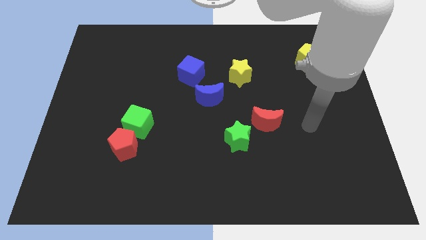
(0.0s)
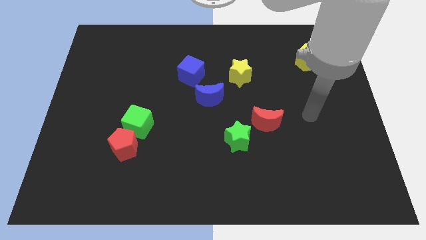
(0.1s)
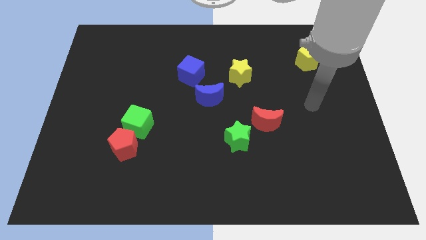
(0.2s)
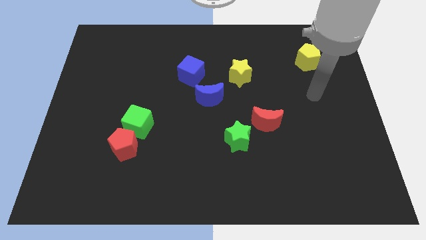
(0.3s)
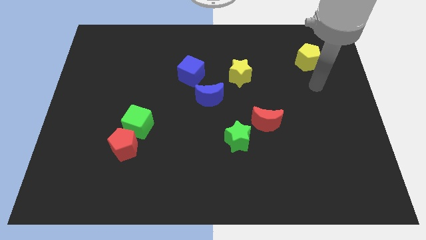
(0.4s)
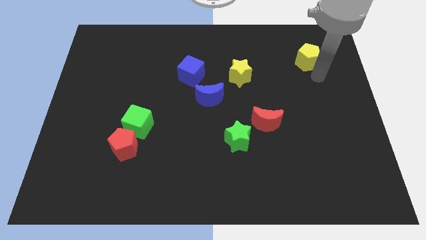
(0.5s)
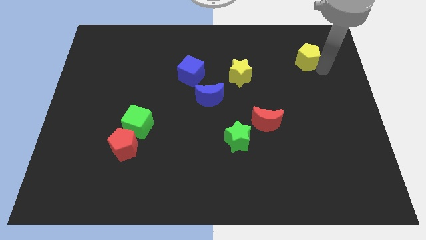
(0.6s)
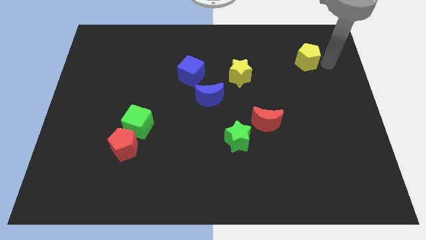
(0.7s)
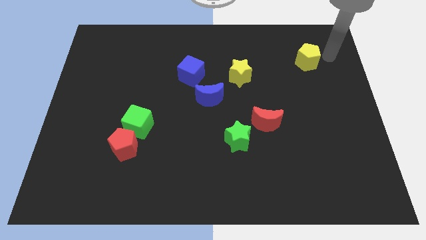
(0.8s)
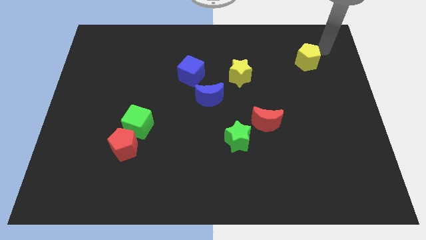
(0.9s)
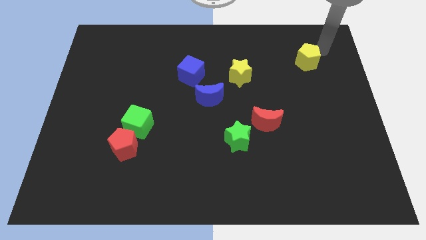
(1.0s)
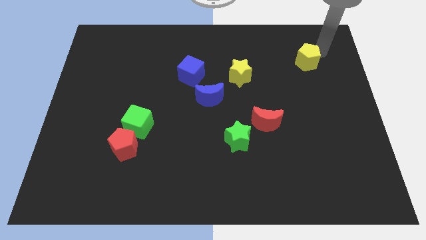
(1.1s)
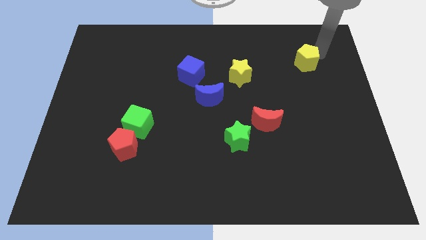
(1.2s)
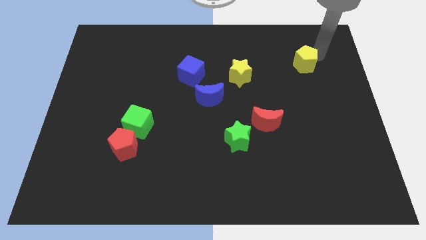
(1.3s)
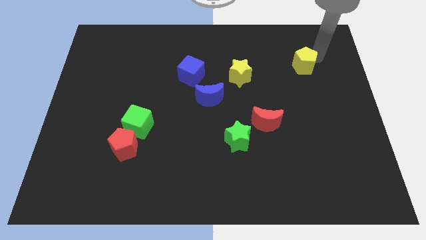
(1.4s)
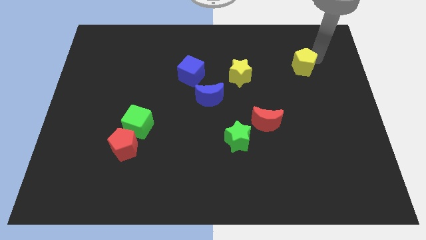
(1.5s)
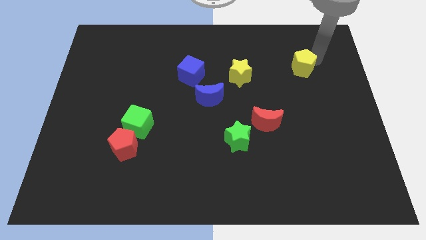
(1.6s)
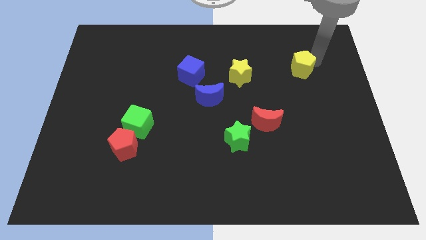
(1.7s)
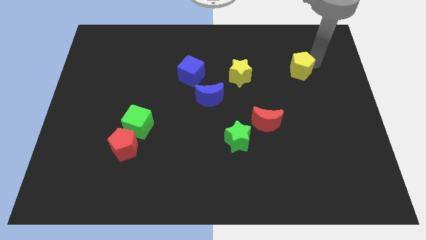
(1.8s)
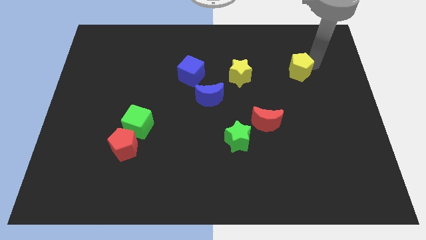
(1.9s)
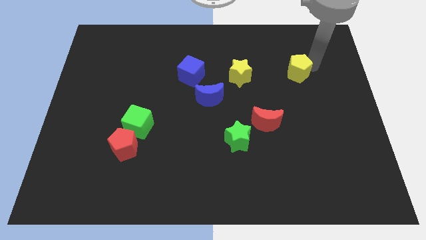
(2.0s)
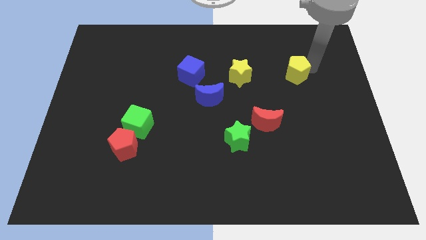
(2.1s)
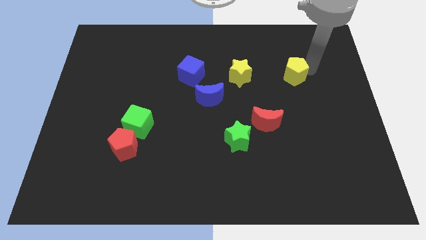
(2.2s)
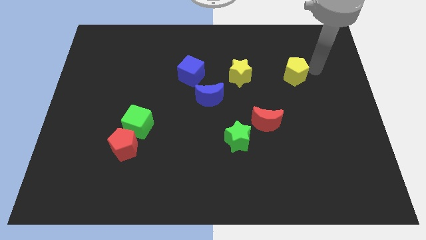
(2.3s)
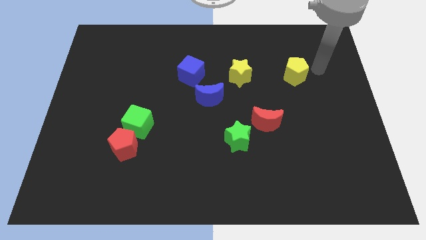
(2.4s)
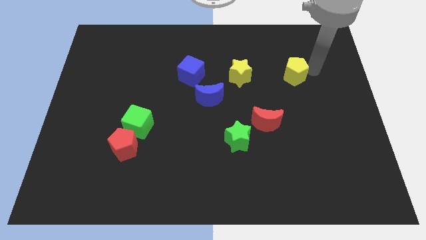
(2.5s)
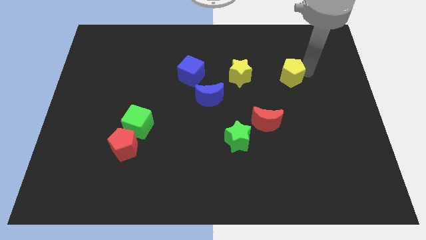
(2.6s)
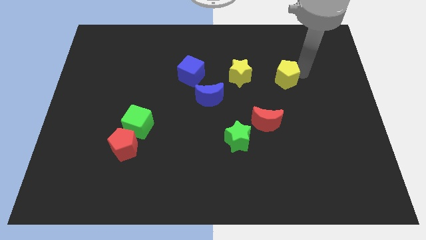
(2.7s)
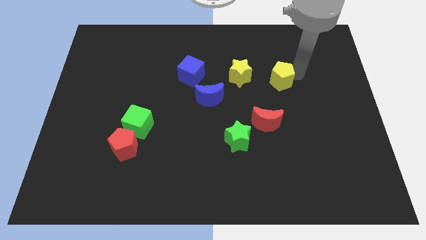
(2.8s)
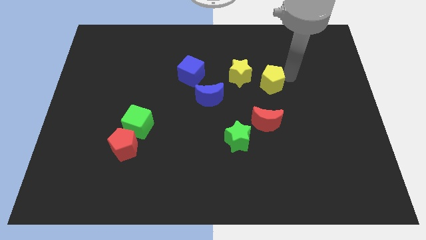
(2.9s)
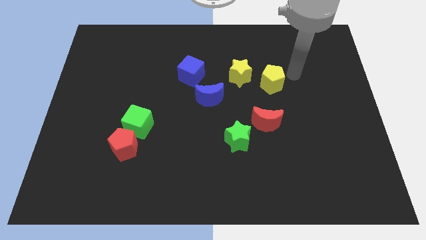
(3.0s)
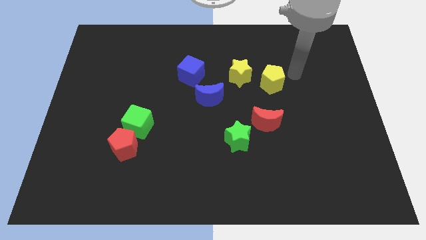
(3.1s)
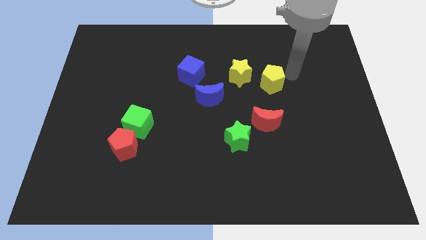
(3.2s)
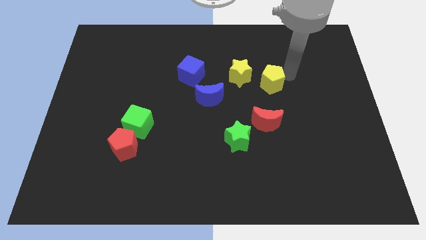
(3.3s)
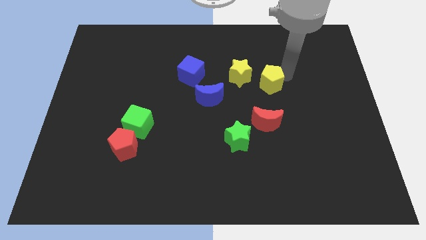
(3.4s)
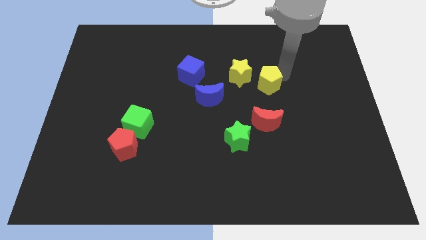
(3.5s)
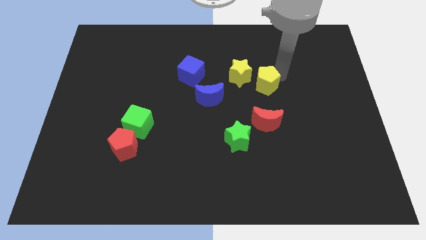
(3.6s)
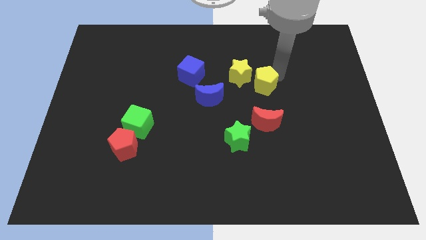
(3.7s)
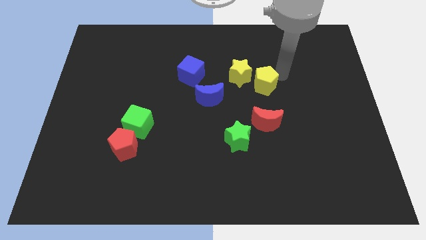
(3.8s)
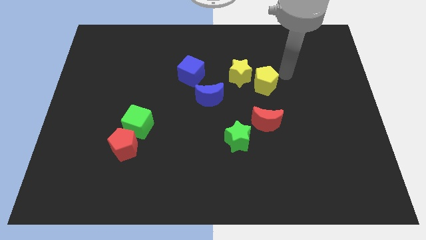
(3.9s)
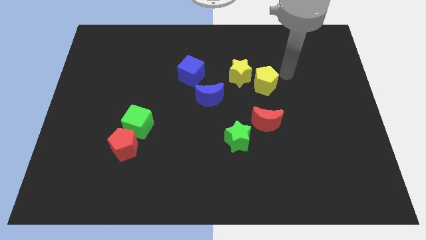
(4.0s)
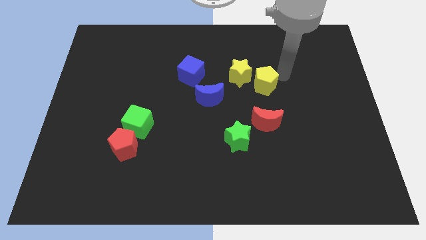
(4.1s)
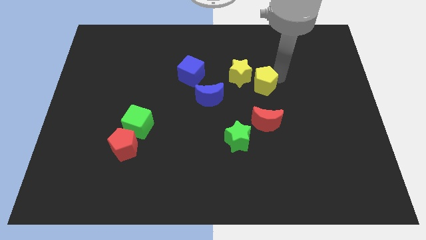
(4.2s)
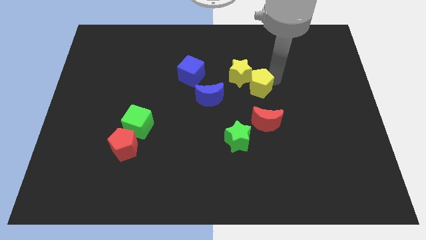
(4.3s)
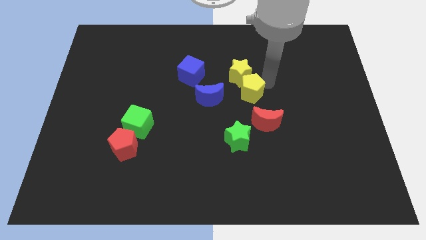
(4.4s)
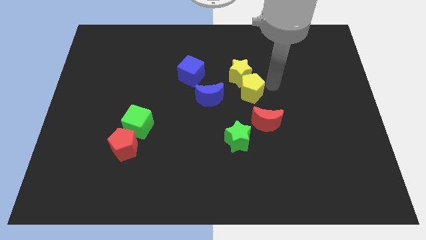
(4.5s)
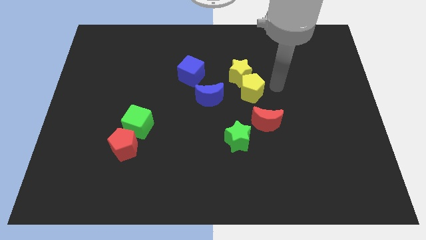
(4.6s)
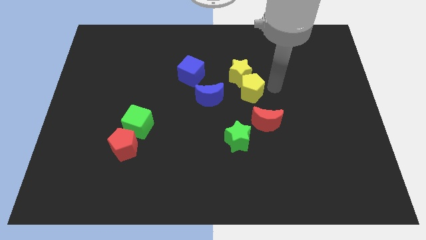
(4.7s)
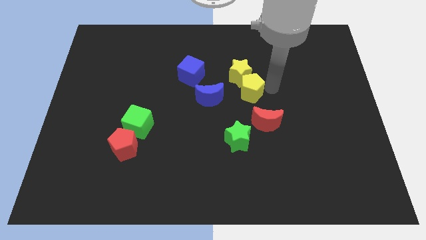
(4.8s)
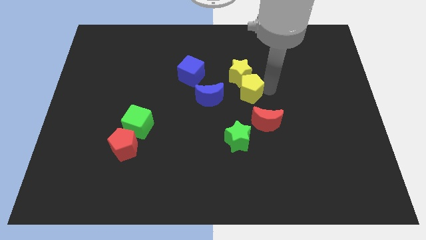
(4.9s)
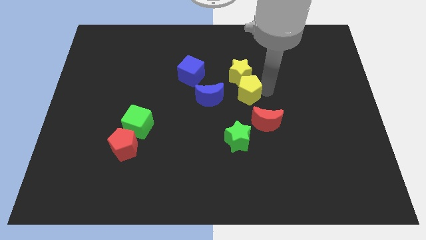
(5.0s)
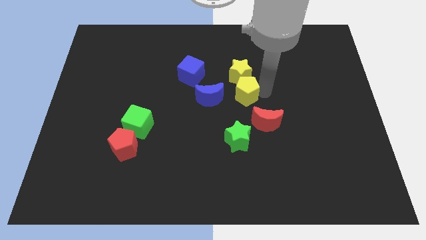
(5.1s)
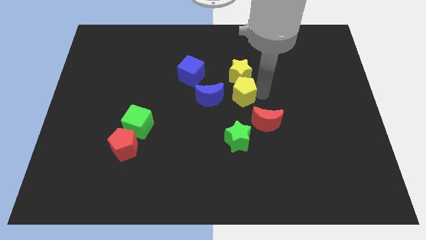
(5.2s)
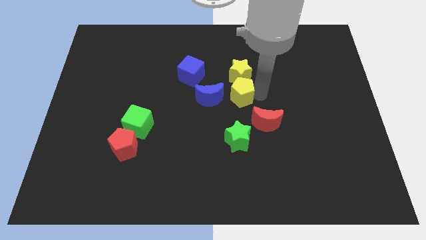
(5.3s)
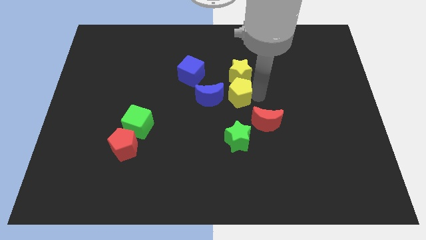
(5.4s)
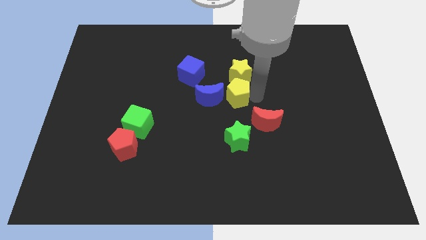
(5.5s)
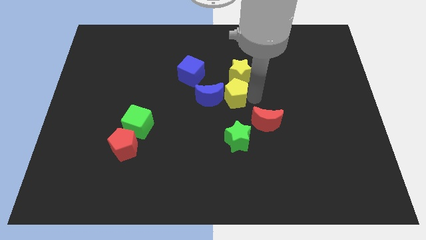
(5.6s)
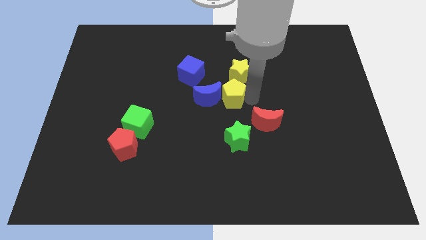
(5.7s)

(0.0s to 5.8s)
slide the yellow pentagon to the blue moon

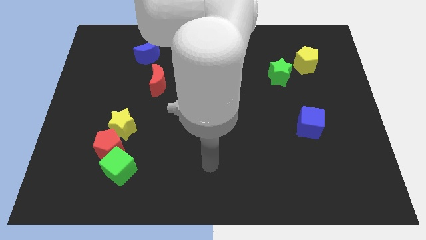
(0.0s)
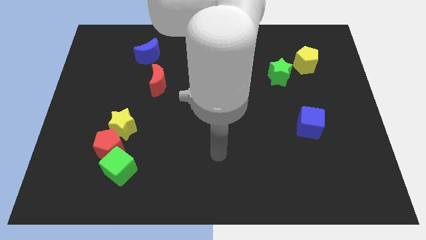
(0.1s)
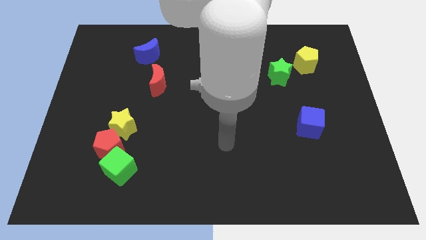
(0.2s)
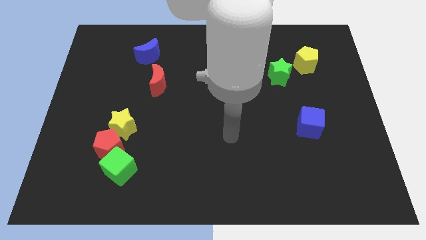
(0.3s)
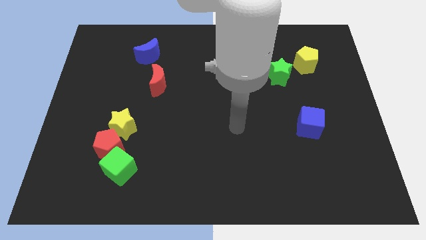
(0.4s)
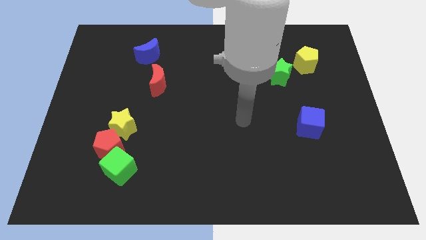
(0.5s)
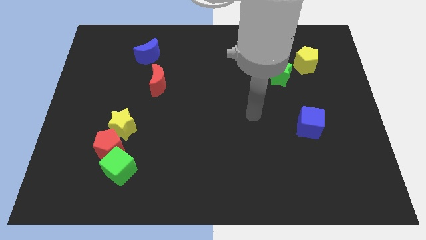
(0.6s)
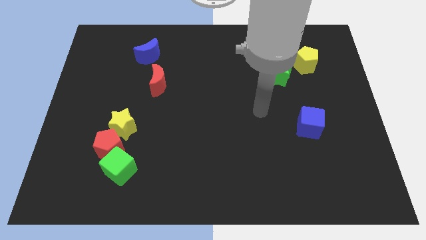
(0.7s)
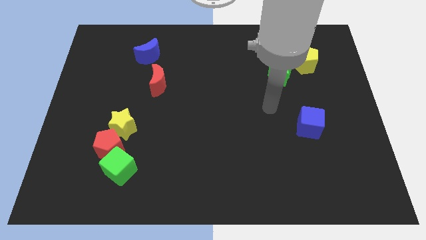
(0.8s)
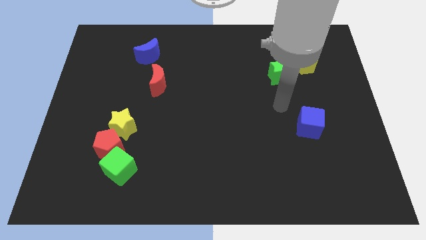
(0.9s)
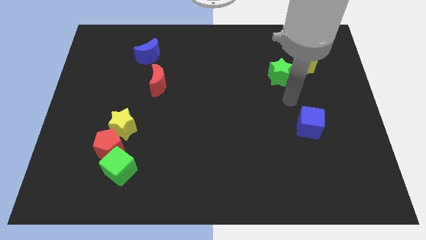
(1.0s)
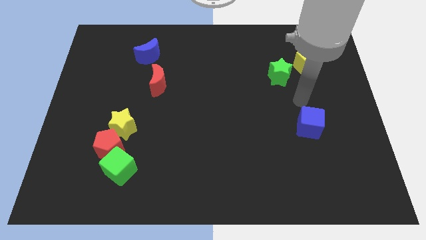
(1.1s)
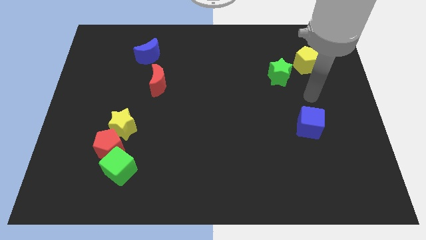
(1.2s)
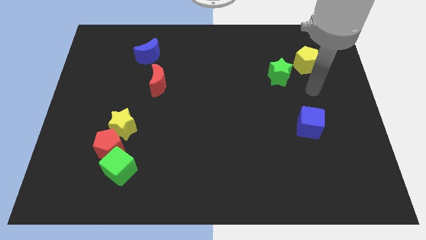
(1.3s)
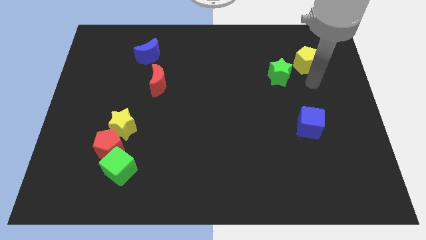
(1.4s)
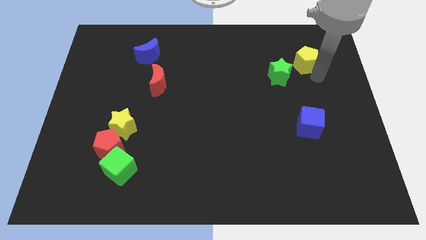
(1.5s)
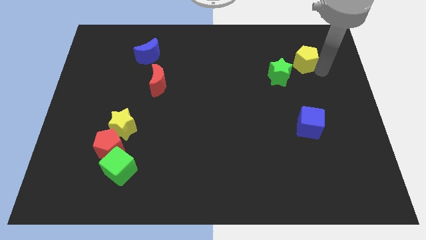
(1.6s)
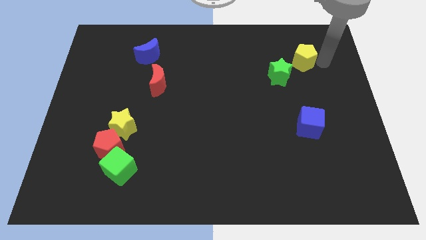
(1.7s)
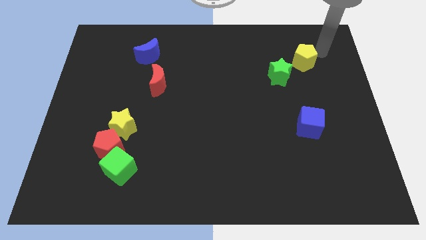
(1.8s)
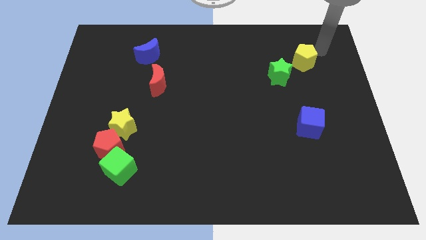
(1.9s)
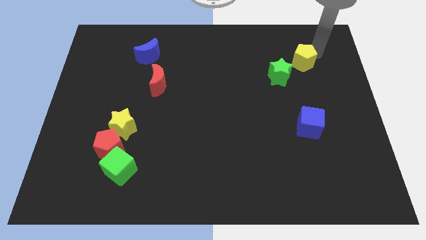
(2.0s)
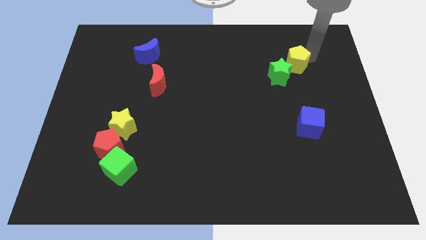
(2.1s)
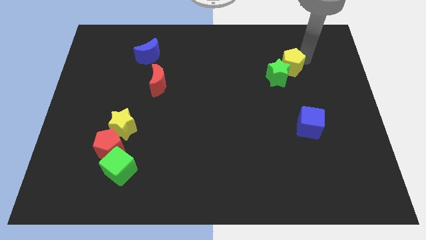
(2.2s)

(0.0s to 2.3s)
move the yellow pentagon close to the green star
